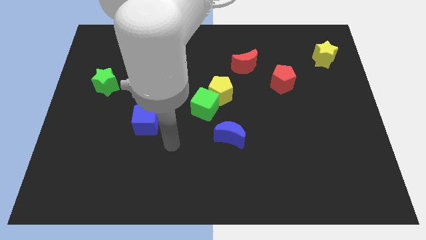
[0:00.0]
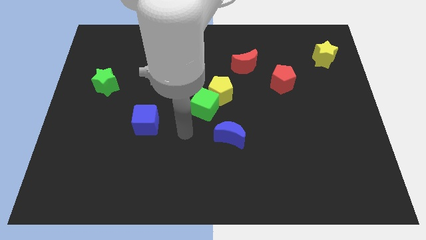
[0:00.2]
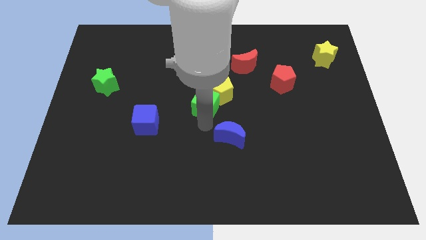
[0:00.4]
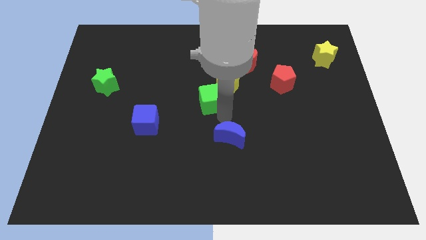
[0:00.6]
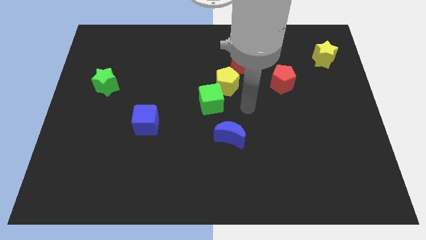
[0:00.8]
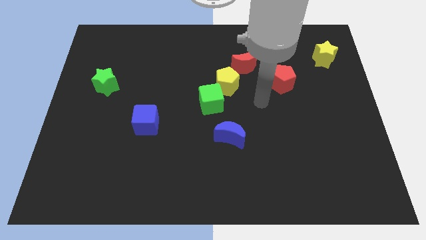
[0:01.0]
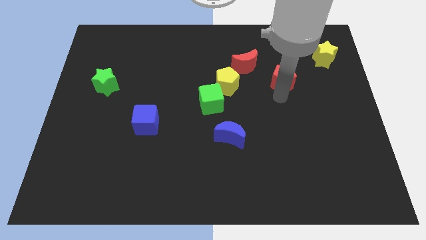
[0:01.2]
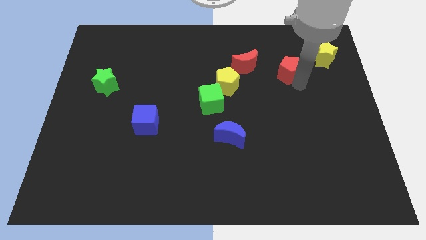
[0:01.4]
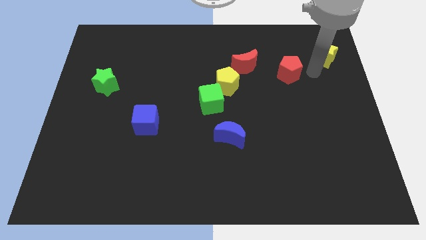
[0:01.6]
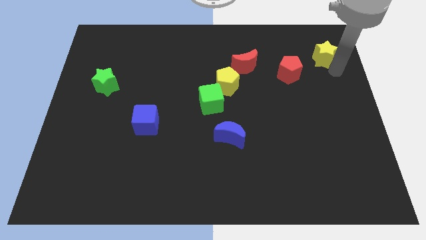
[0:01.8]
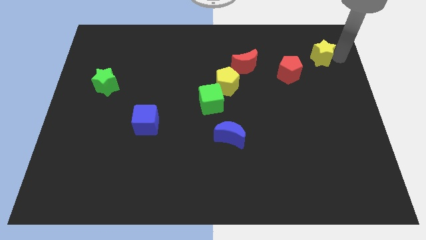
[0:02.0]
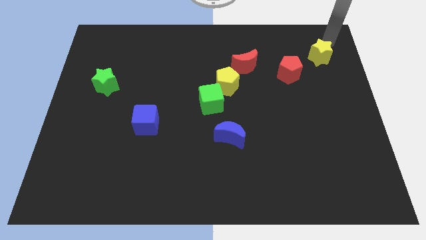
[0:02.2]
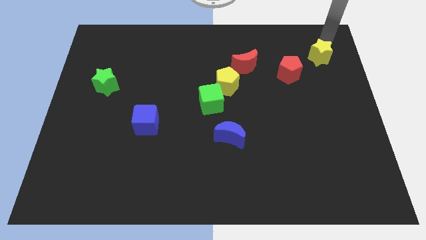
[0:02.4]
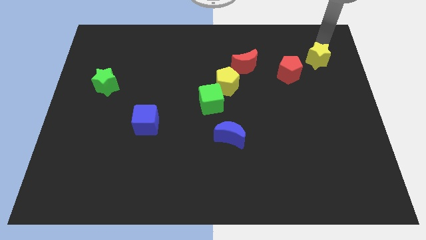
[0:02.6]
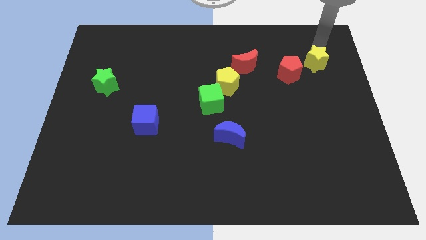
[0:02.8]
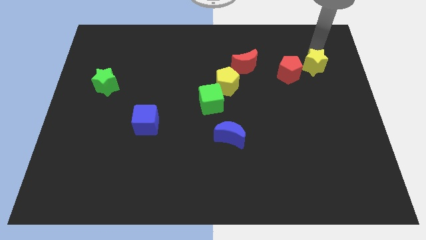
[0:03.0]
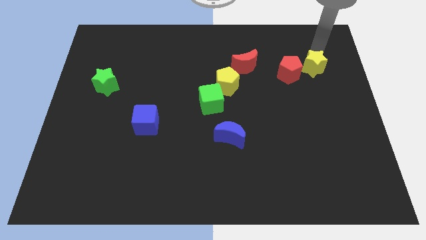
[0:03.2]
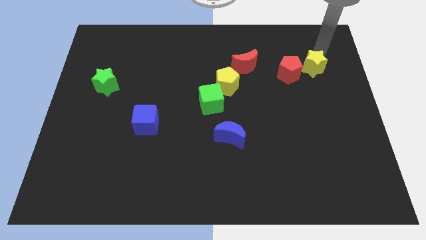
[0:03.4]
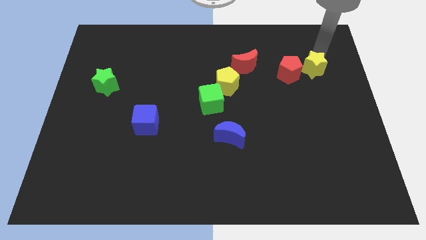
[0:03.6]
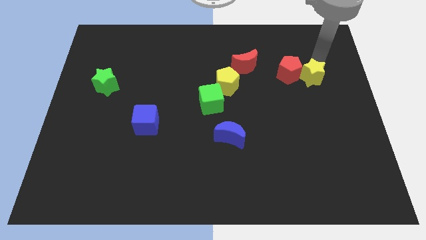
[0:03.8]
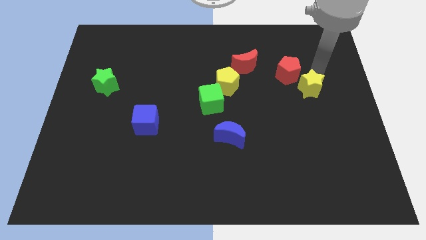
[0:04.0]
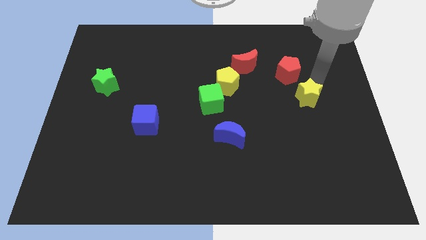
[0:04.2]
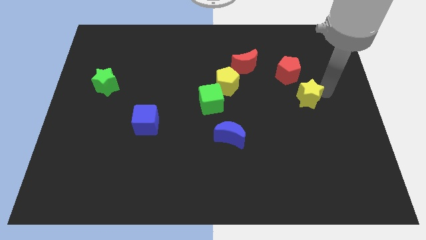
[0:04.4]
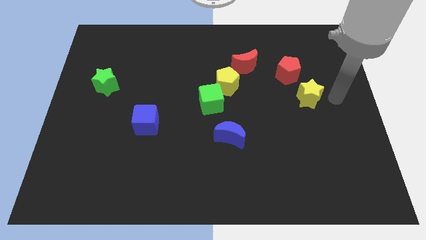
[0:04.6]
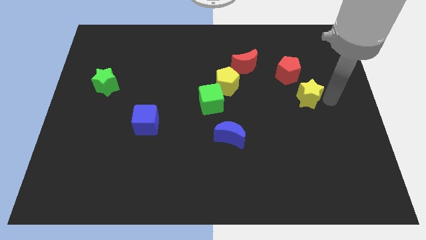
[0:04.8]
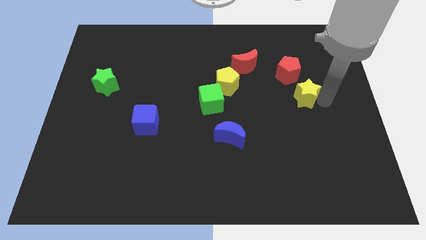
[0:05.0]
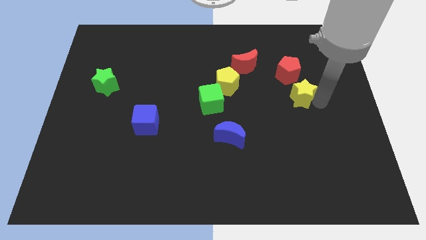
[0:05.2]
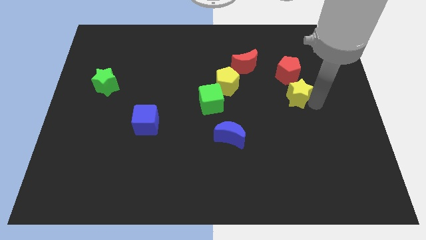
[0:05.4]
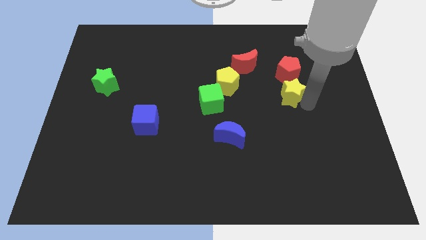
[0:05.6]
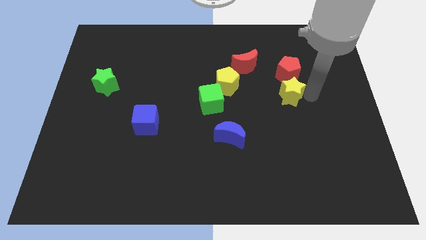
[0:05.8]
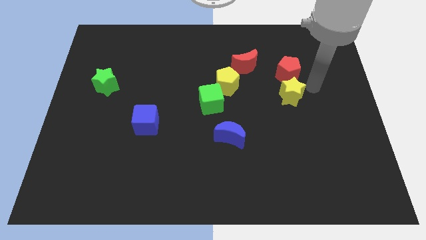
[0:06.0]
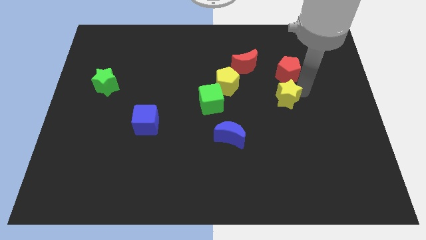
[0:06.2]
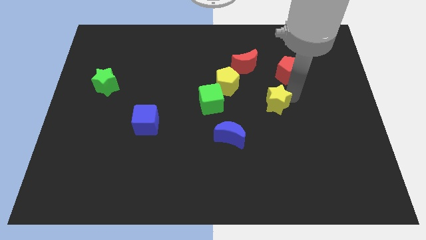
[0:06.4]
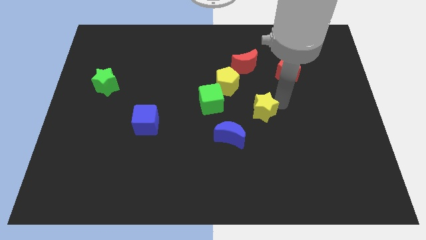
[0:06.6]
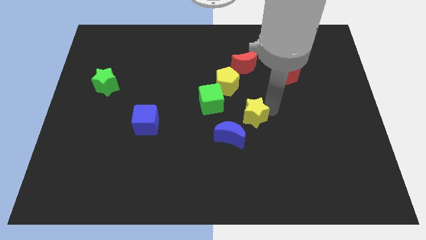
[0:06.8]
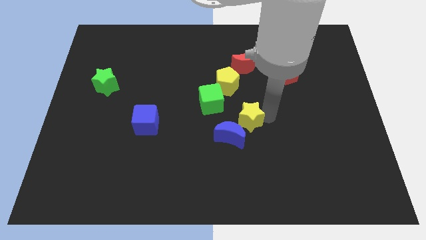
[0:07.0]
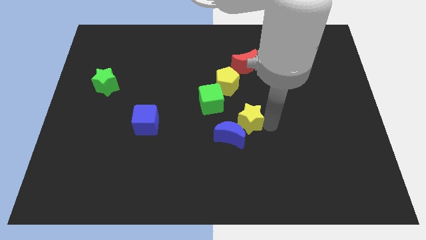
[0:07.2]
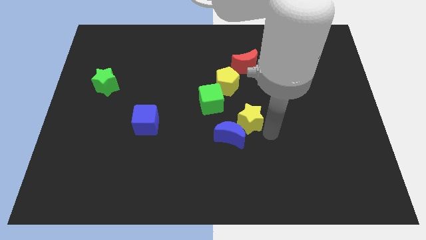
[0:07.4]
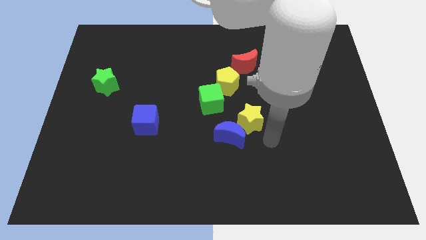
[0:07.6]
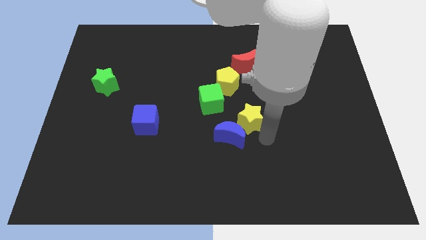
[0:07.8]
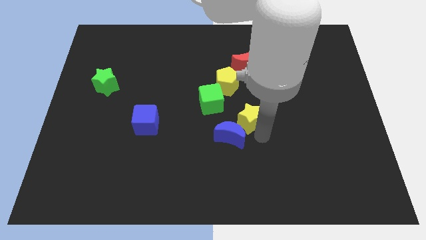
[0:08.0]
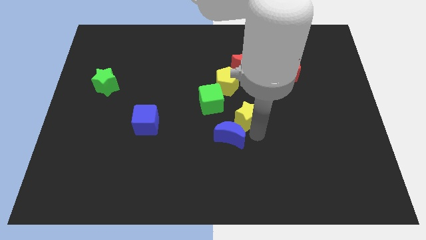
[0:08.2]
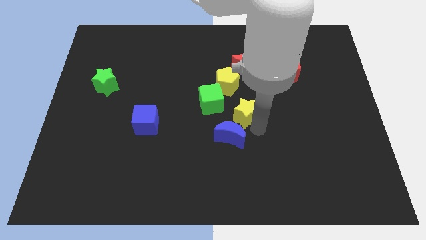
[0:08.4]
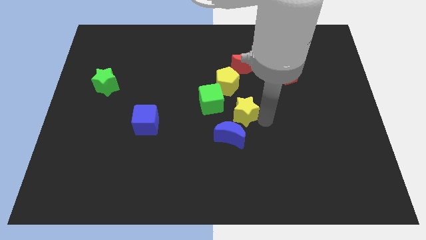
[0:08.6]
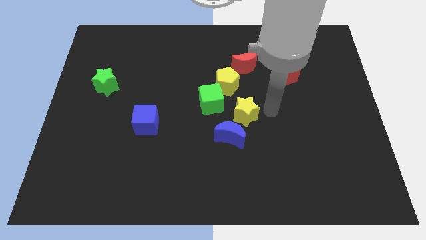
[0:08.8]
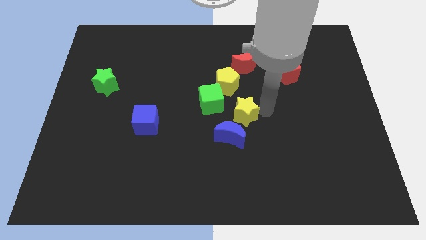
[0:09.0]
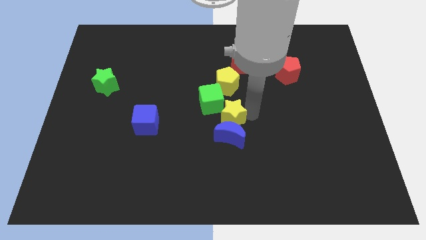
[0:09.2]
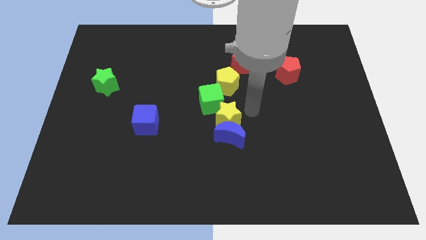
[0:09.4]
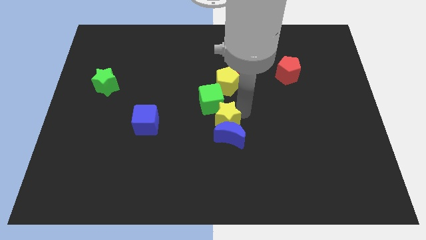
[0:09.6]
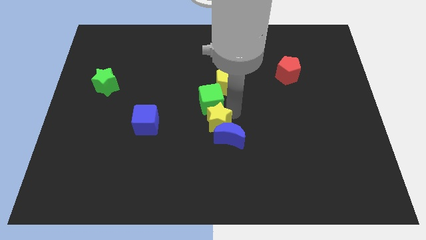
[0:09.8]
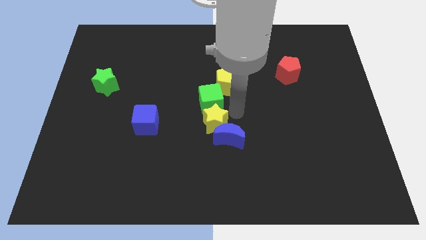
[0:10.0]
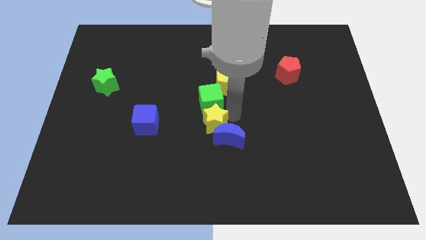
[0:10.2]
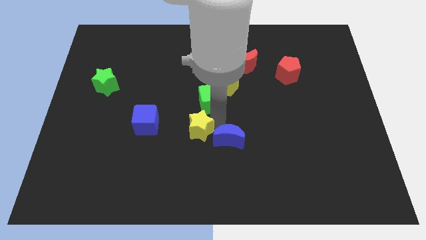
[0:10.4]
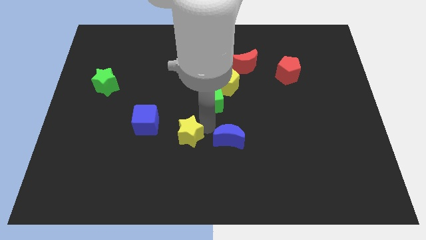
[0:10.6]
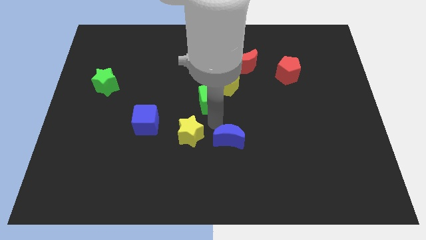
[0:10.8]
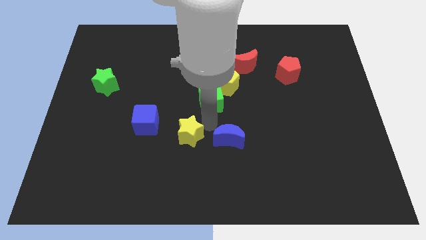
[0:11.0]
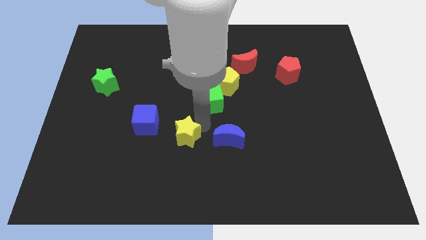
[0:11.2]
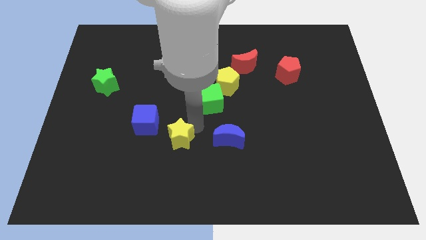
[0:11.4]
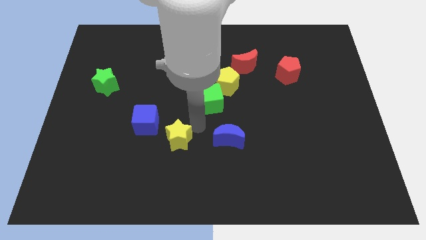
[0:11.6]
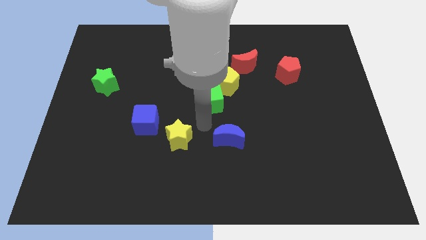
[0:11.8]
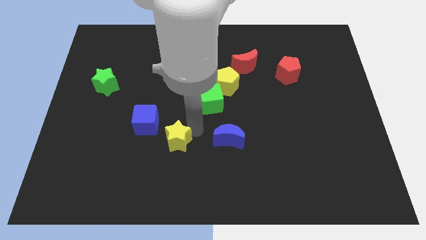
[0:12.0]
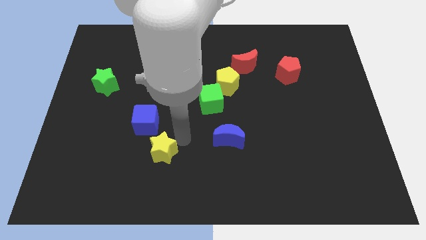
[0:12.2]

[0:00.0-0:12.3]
push the yellow star below the blue cube

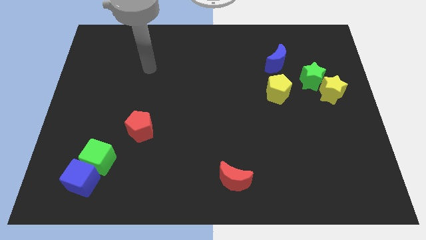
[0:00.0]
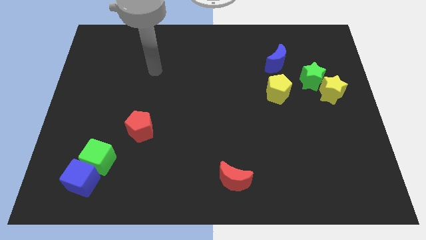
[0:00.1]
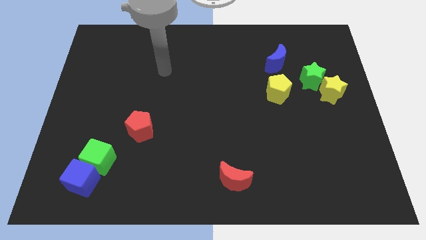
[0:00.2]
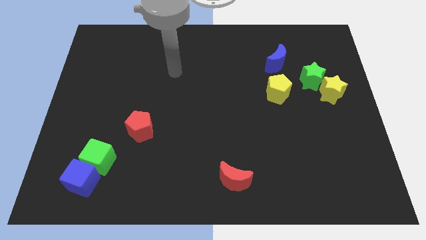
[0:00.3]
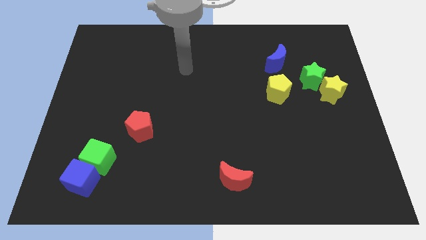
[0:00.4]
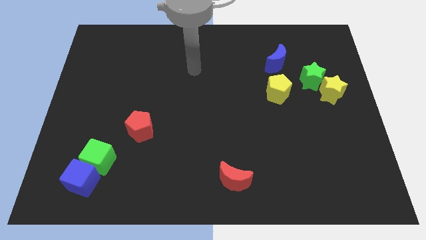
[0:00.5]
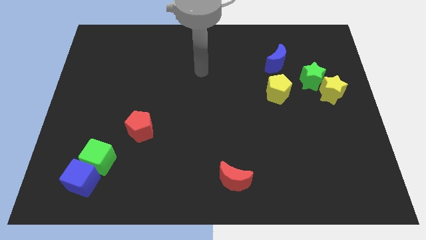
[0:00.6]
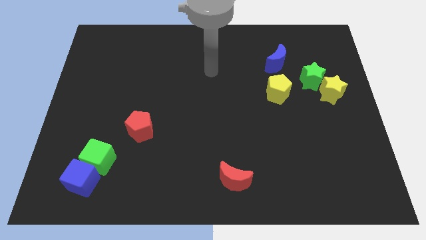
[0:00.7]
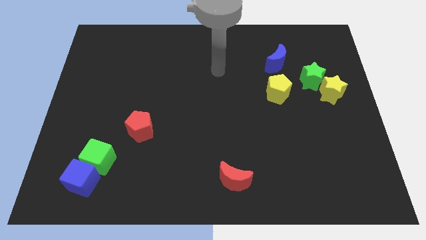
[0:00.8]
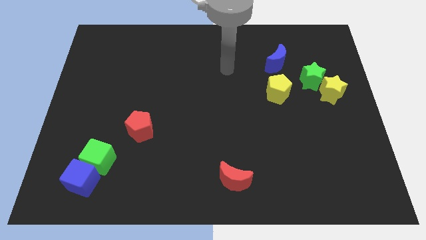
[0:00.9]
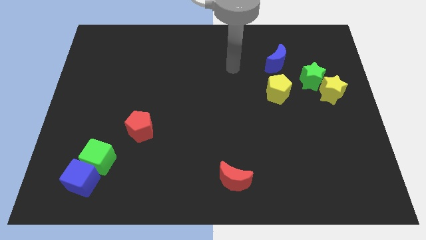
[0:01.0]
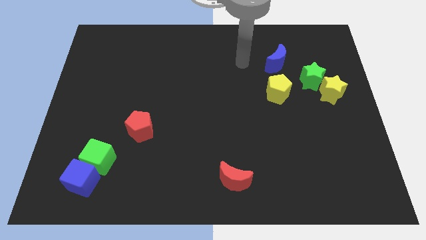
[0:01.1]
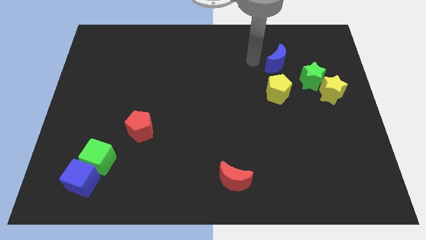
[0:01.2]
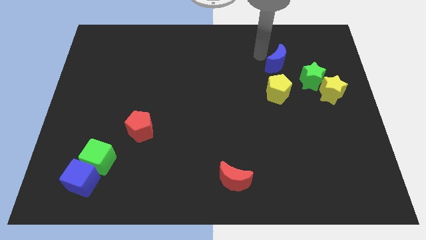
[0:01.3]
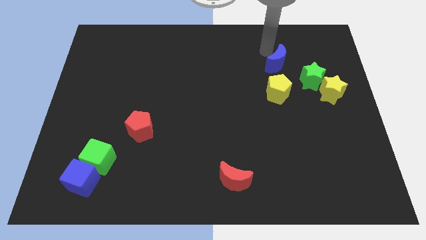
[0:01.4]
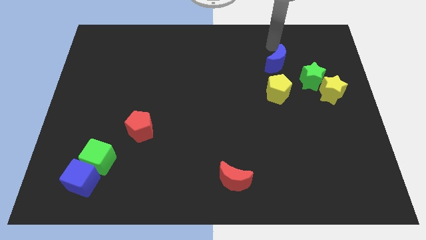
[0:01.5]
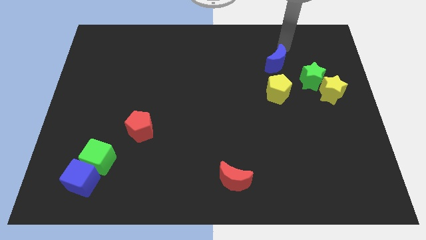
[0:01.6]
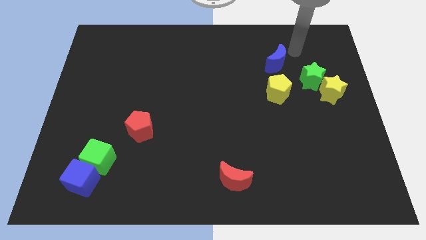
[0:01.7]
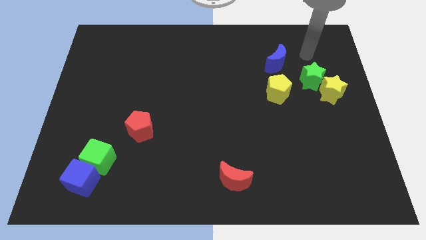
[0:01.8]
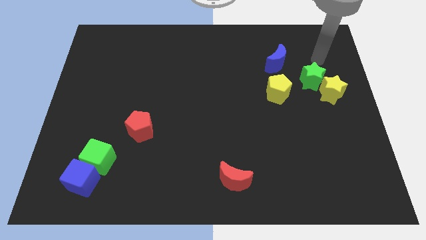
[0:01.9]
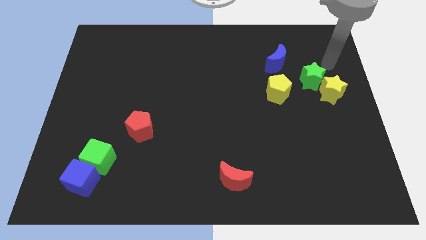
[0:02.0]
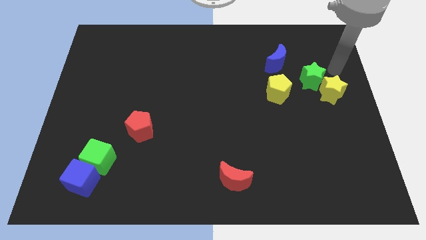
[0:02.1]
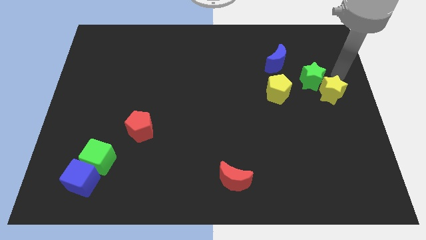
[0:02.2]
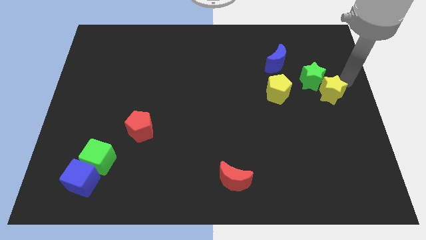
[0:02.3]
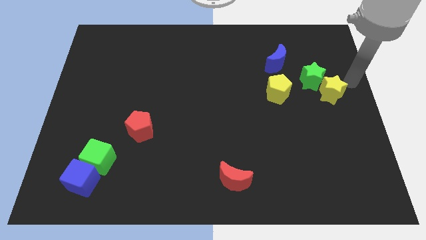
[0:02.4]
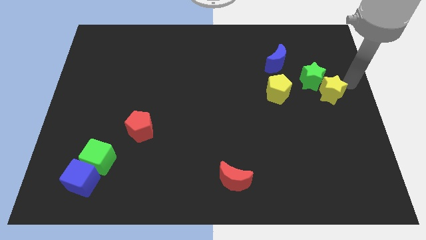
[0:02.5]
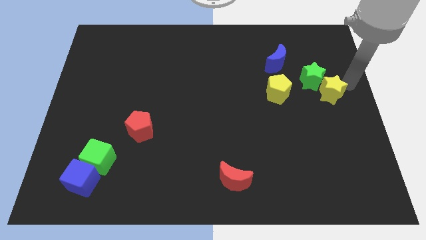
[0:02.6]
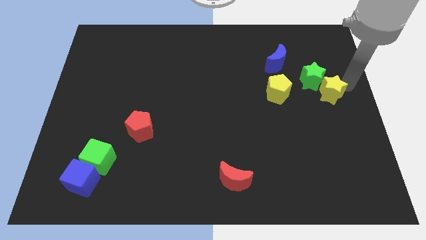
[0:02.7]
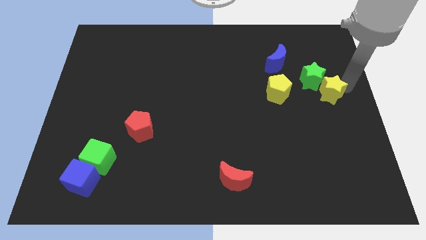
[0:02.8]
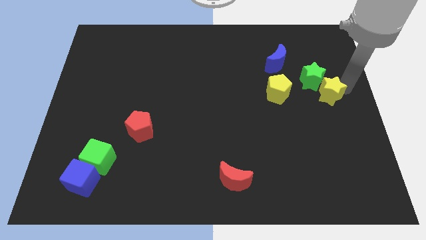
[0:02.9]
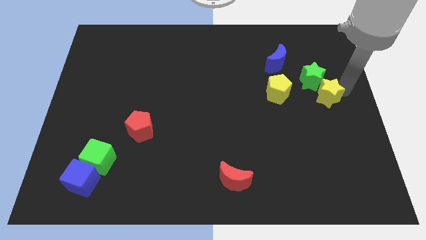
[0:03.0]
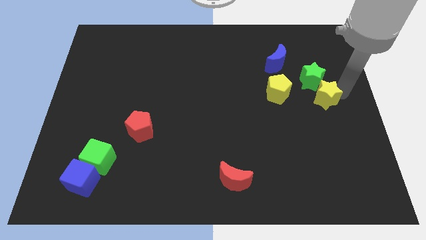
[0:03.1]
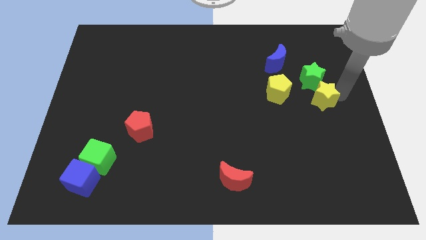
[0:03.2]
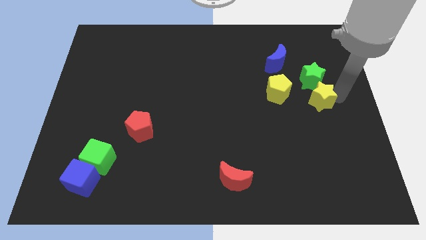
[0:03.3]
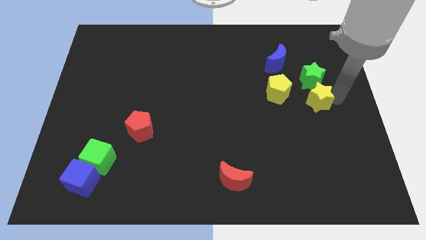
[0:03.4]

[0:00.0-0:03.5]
push the yellow star to the bottom right of the yellow pentagon
